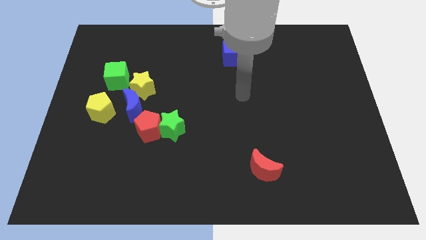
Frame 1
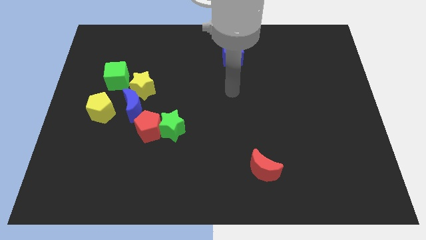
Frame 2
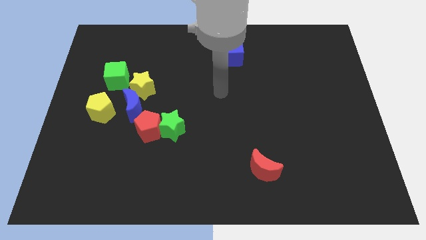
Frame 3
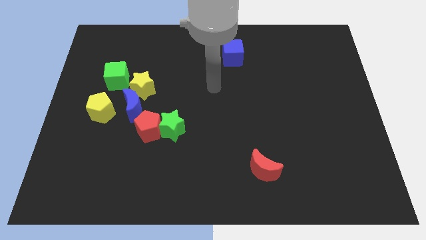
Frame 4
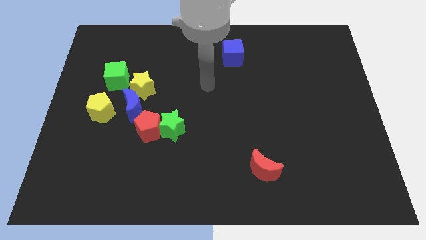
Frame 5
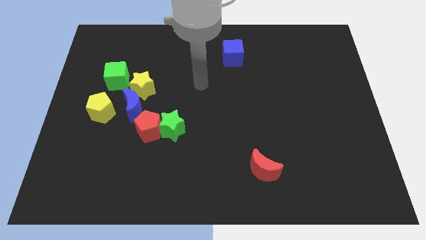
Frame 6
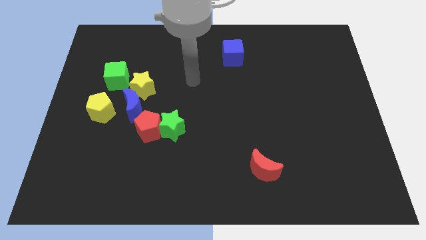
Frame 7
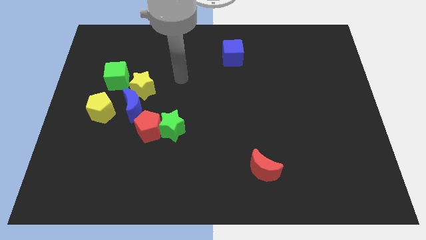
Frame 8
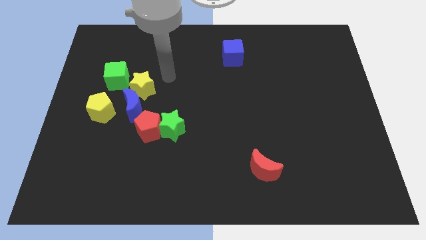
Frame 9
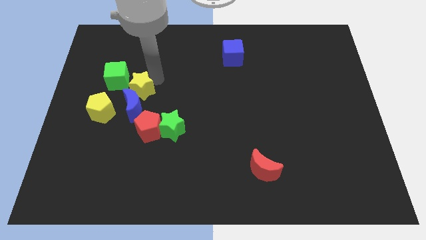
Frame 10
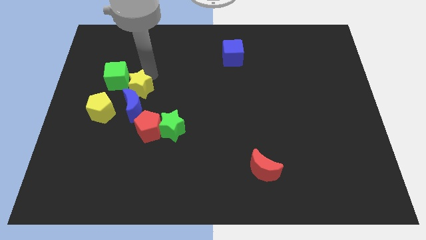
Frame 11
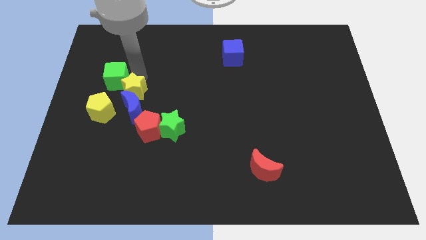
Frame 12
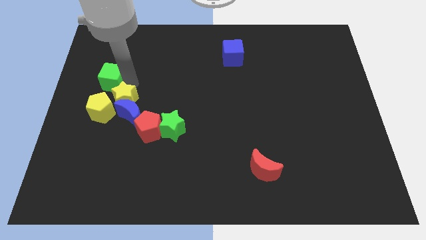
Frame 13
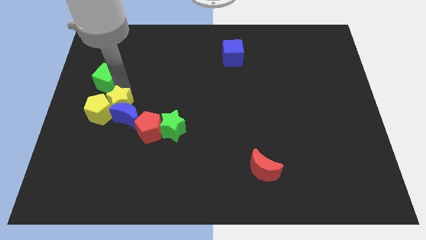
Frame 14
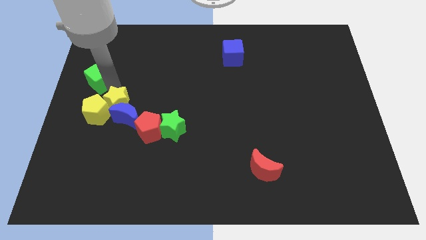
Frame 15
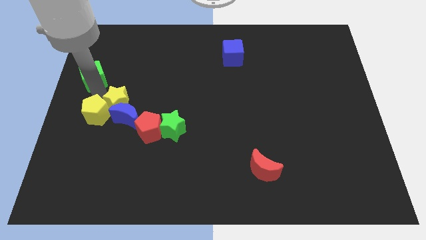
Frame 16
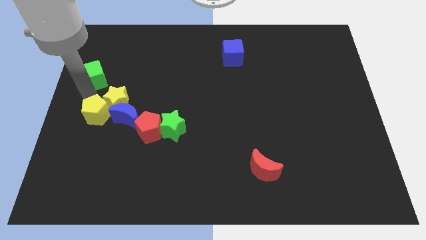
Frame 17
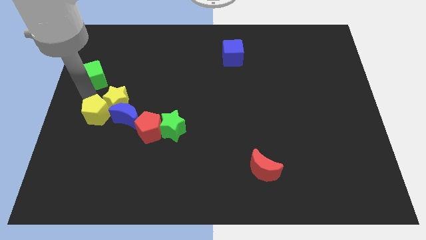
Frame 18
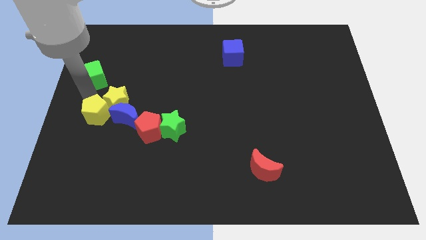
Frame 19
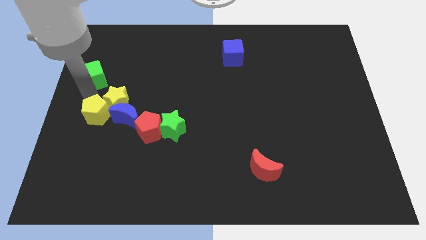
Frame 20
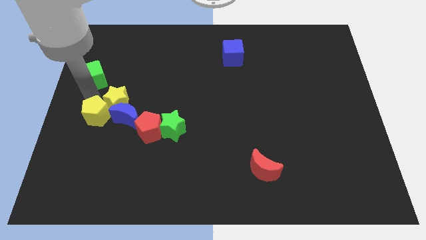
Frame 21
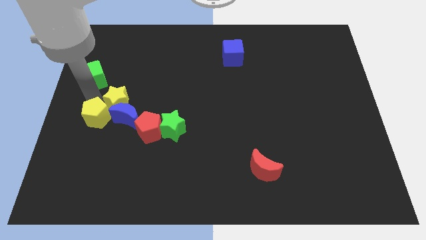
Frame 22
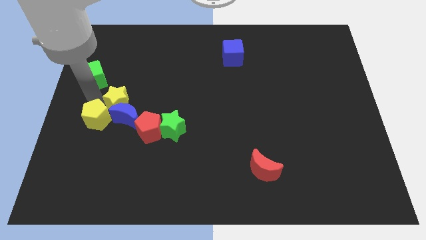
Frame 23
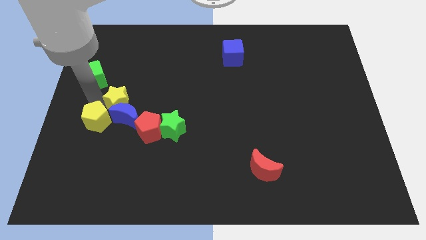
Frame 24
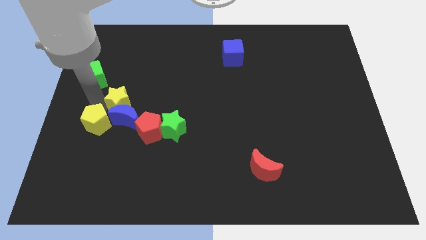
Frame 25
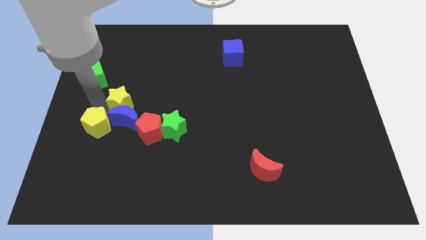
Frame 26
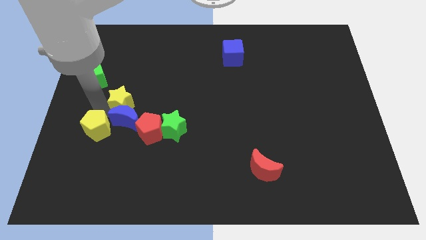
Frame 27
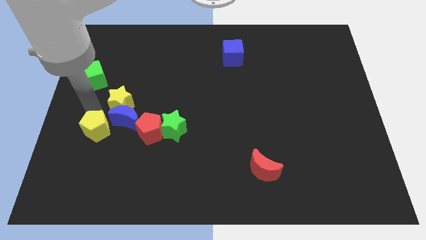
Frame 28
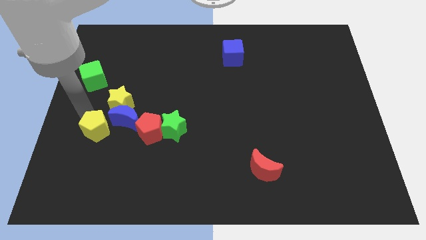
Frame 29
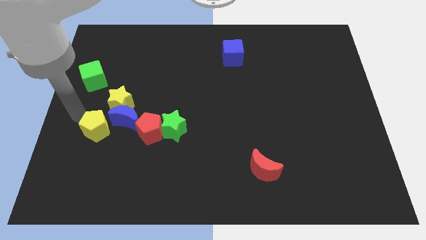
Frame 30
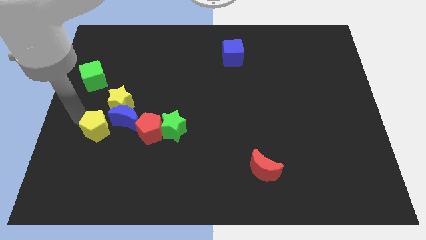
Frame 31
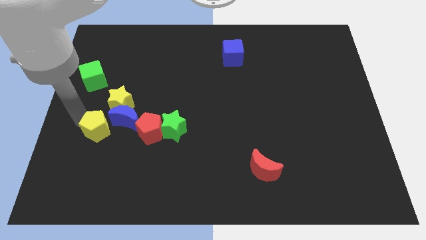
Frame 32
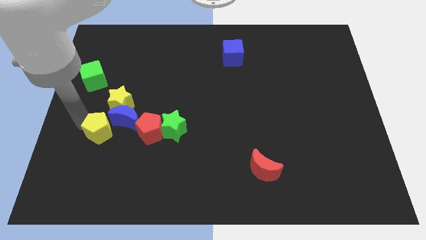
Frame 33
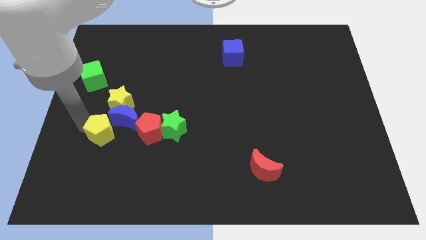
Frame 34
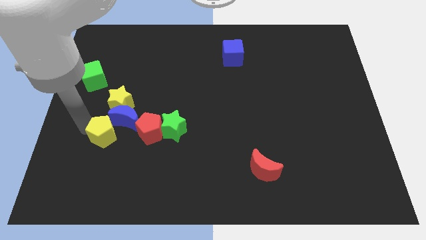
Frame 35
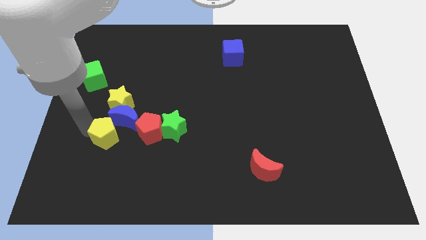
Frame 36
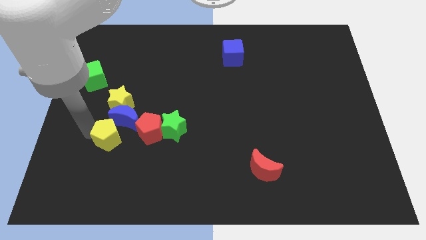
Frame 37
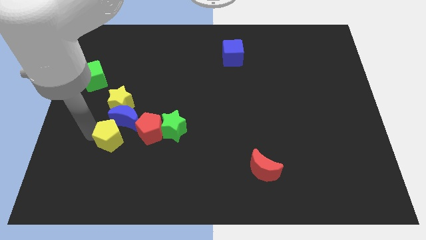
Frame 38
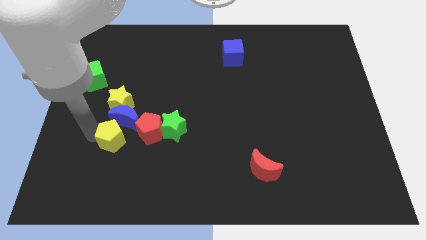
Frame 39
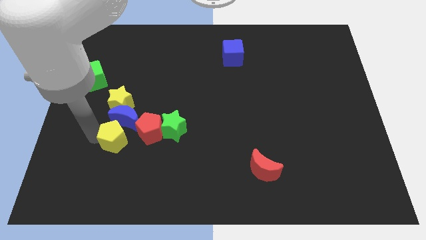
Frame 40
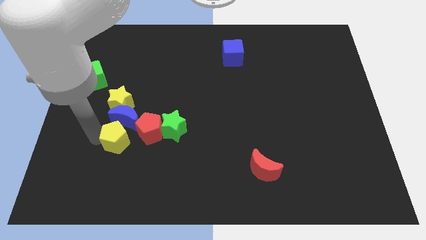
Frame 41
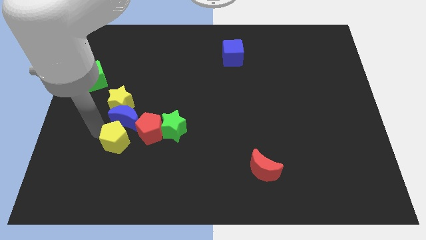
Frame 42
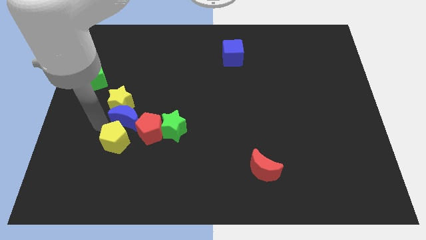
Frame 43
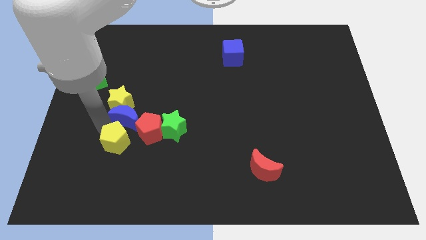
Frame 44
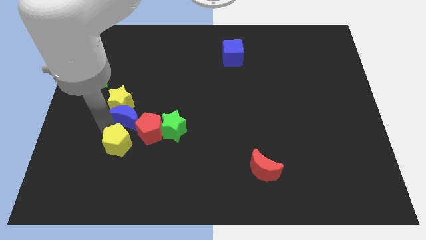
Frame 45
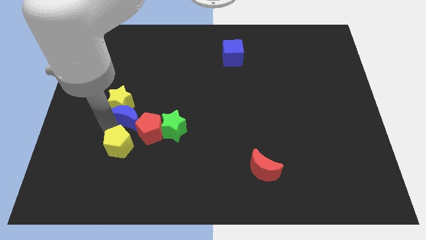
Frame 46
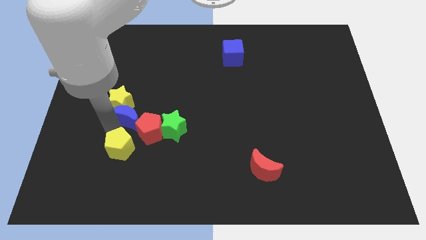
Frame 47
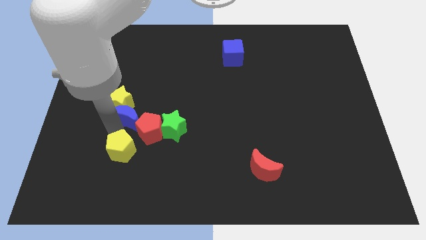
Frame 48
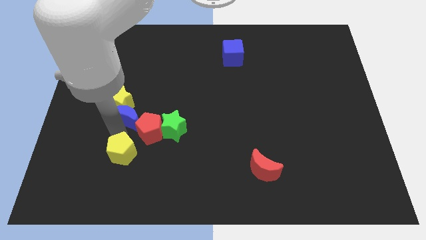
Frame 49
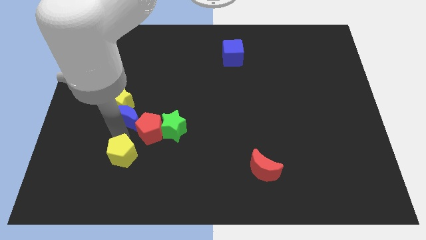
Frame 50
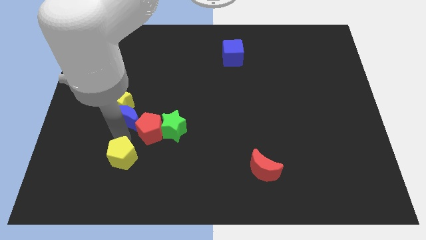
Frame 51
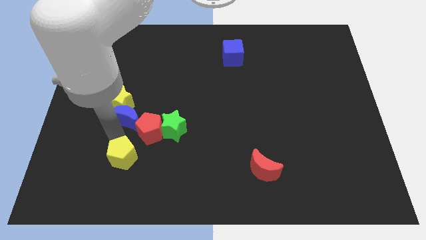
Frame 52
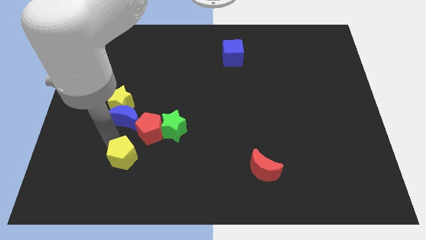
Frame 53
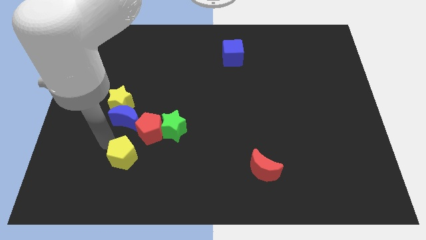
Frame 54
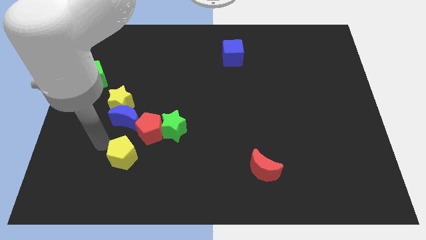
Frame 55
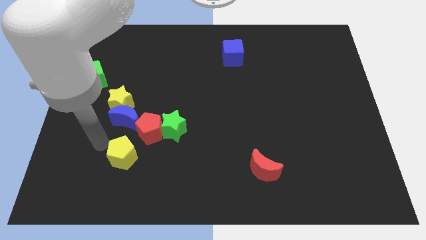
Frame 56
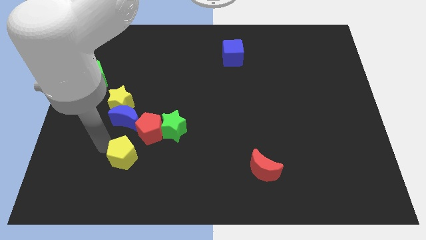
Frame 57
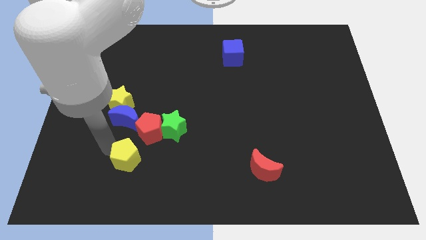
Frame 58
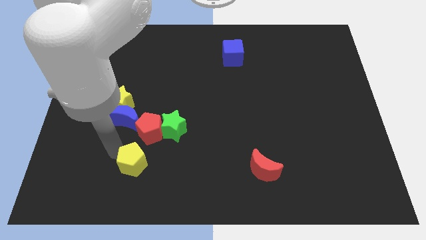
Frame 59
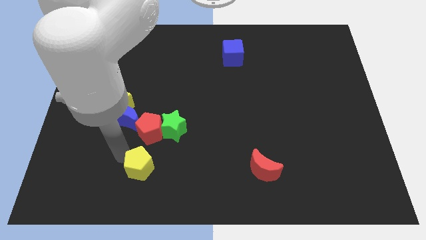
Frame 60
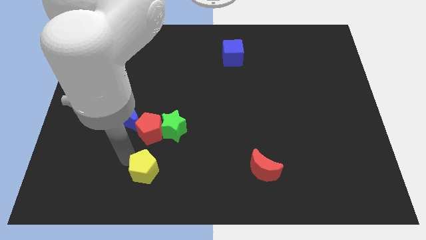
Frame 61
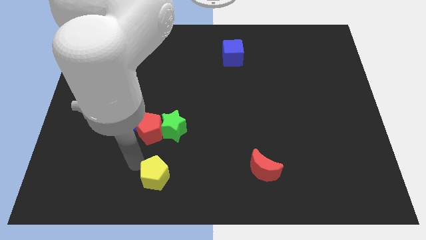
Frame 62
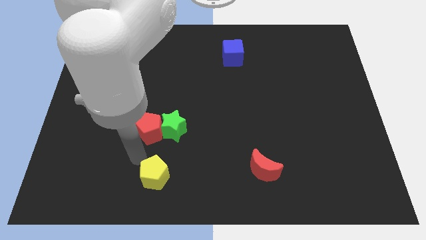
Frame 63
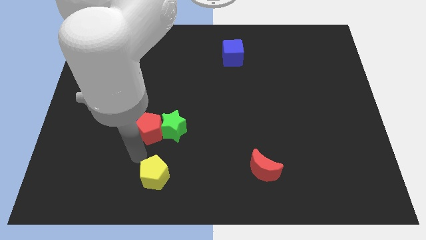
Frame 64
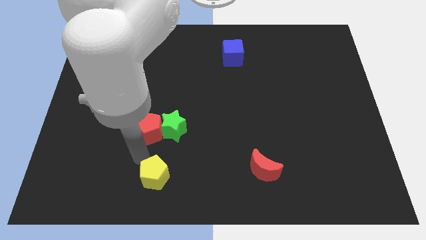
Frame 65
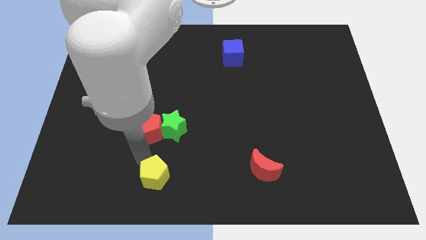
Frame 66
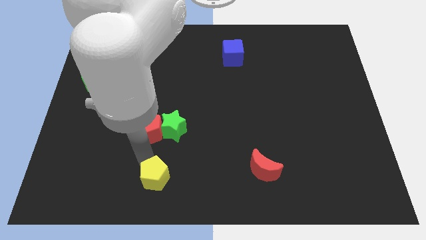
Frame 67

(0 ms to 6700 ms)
move the yellow pentagon to the bottom

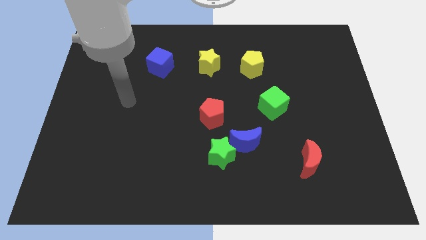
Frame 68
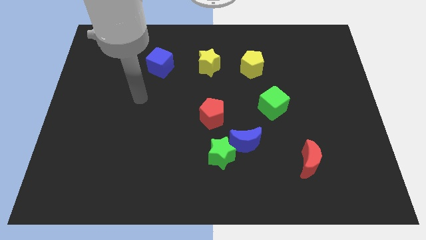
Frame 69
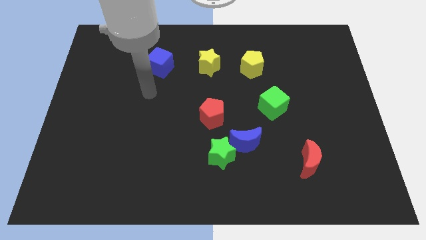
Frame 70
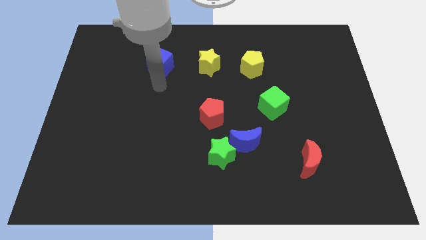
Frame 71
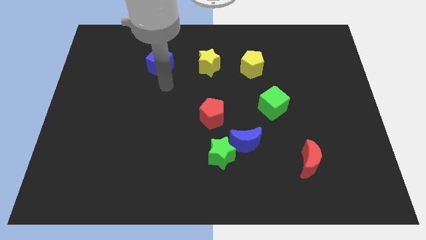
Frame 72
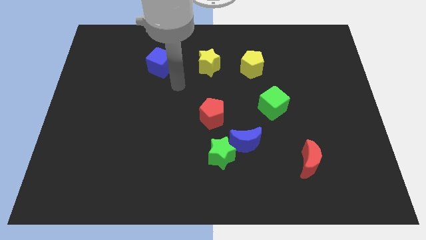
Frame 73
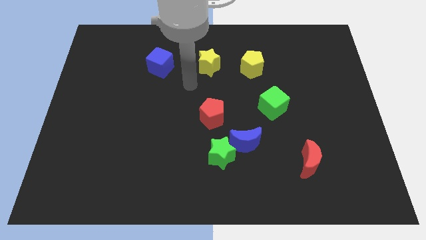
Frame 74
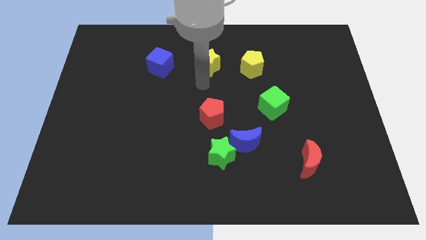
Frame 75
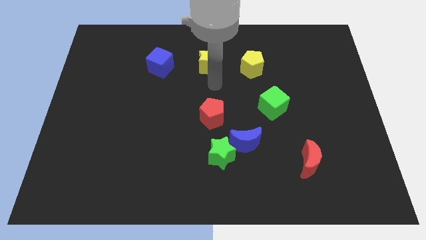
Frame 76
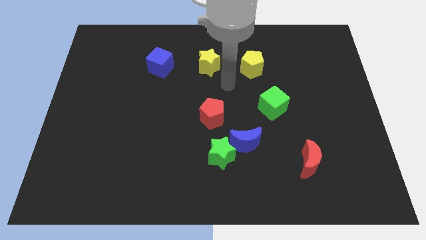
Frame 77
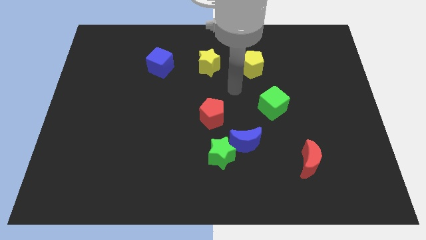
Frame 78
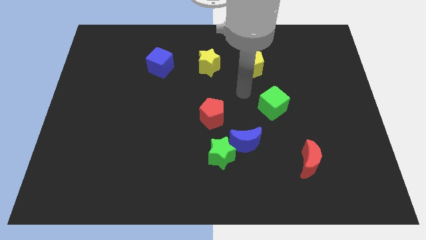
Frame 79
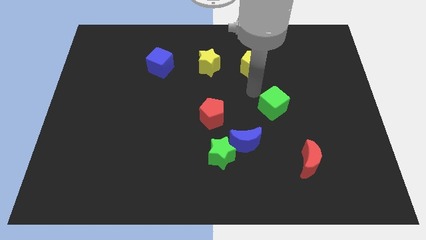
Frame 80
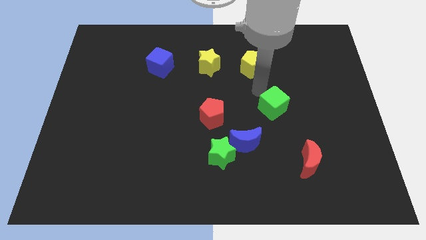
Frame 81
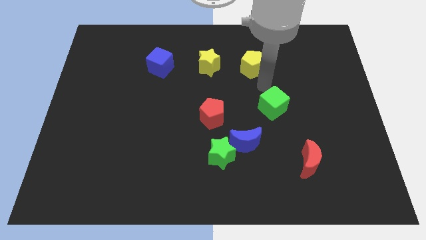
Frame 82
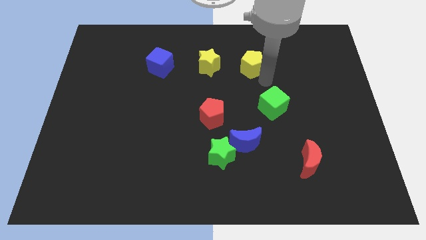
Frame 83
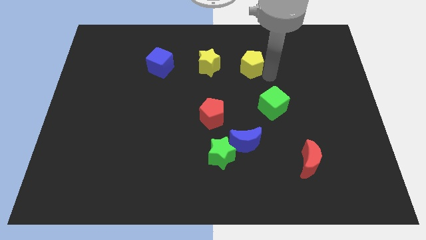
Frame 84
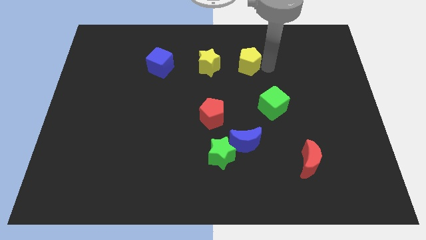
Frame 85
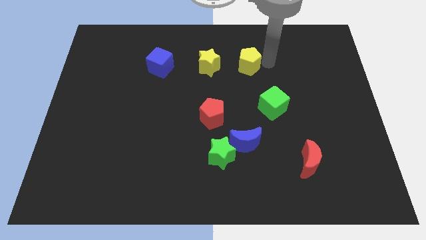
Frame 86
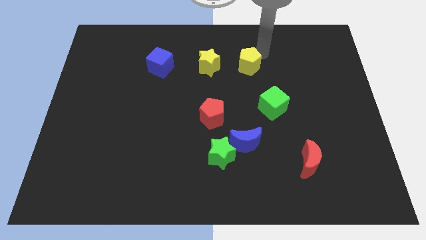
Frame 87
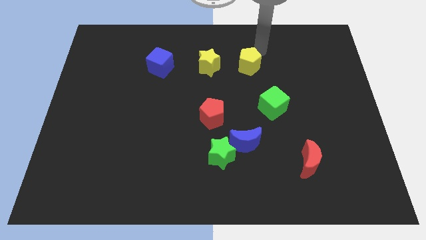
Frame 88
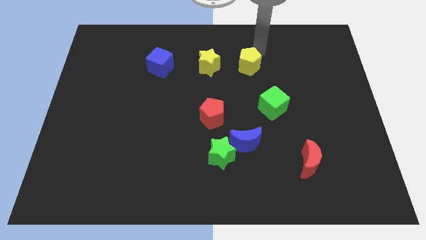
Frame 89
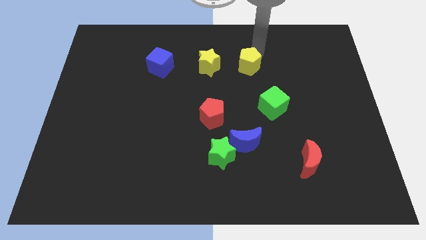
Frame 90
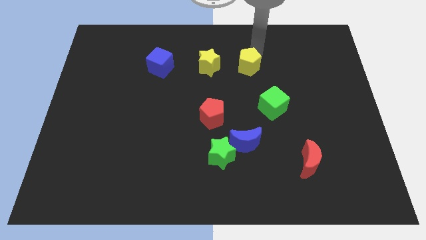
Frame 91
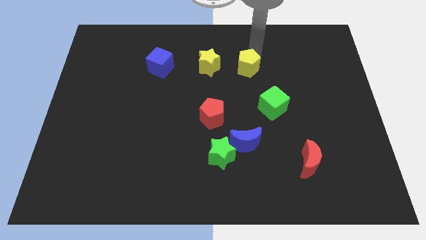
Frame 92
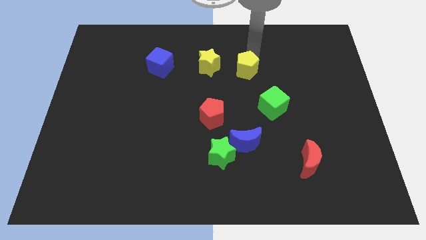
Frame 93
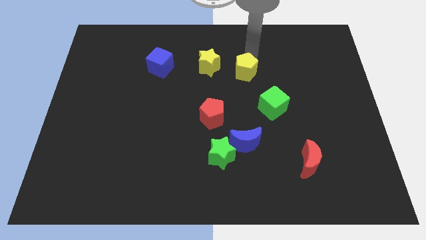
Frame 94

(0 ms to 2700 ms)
put the yellow pentagon to the center
